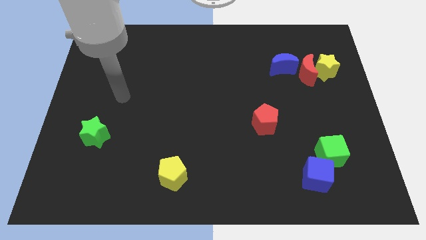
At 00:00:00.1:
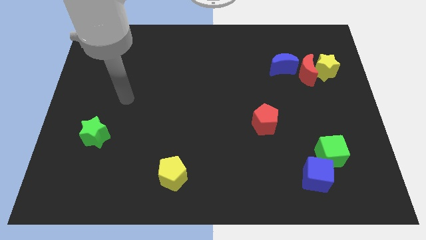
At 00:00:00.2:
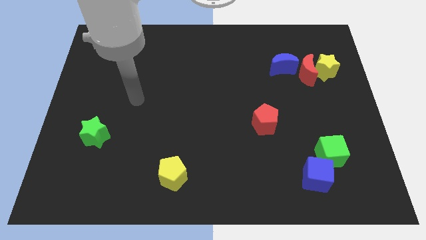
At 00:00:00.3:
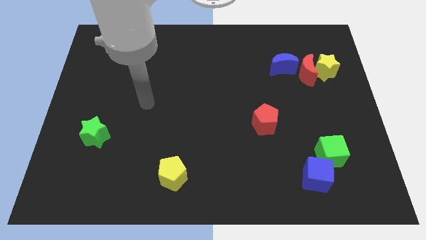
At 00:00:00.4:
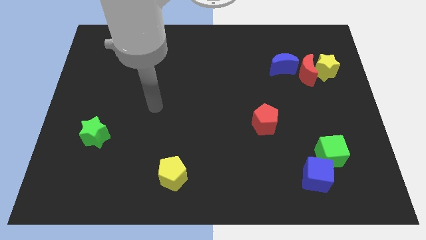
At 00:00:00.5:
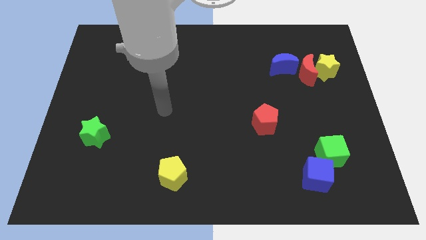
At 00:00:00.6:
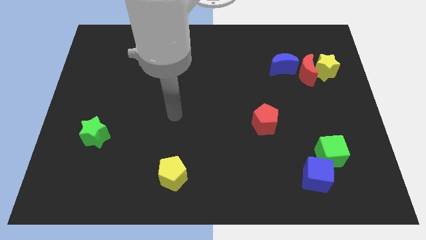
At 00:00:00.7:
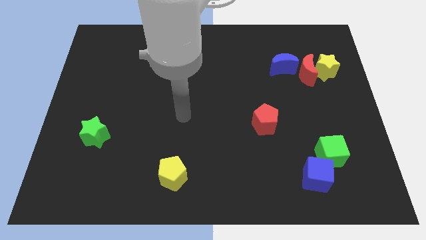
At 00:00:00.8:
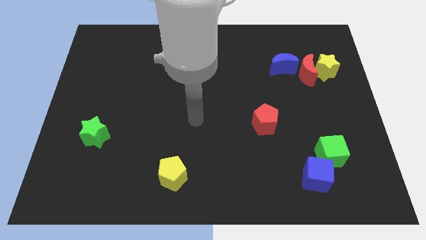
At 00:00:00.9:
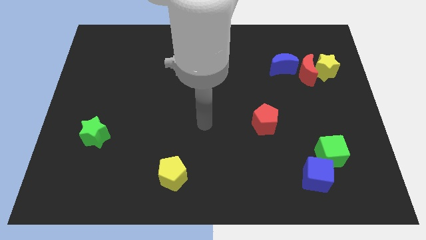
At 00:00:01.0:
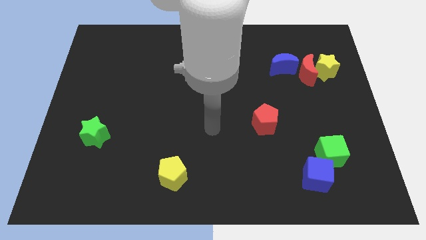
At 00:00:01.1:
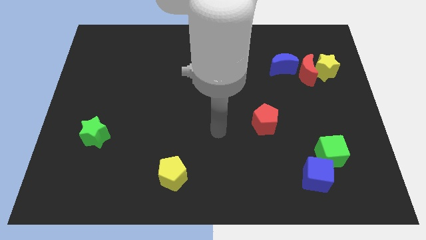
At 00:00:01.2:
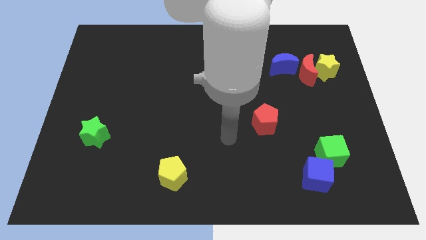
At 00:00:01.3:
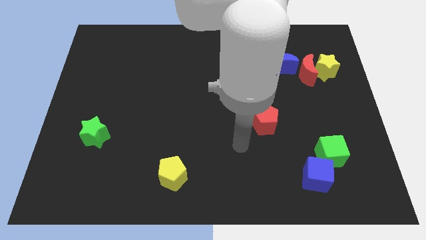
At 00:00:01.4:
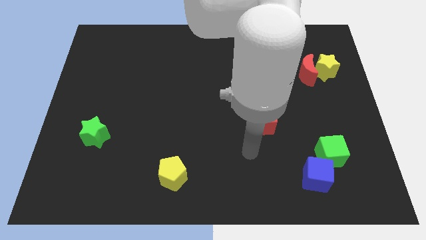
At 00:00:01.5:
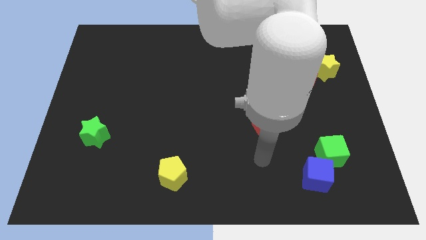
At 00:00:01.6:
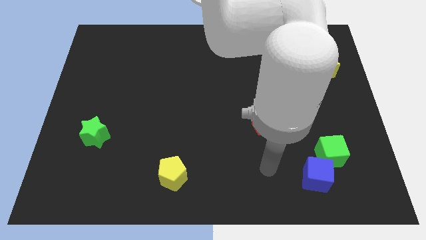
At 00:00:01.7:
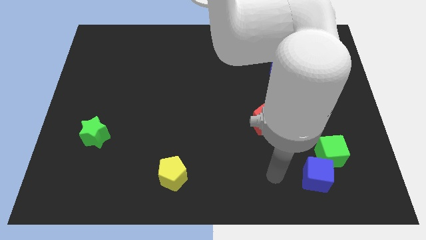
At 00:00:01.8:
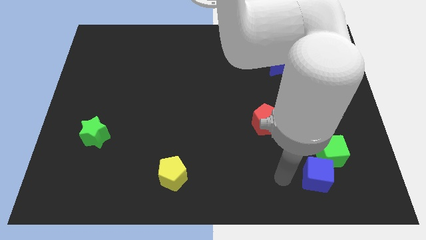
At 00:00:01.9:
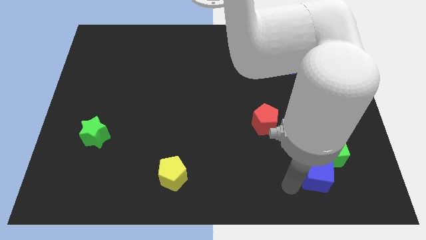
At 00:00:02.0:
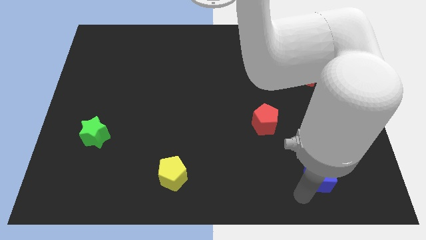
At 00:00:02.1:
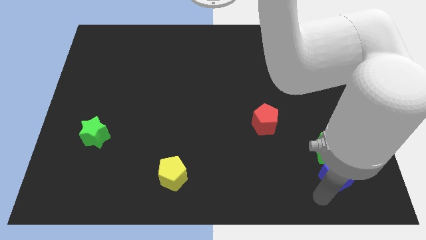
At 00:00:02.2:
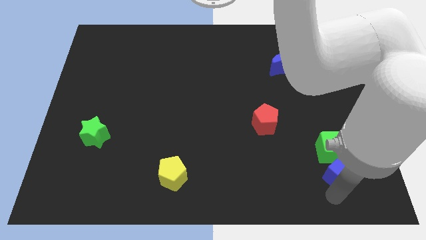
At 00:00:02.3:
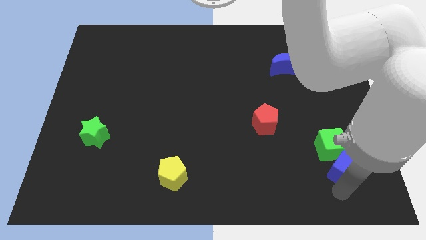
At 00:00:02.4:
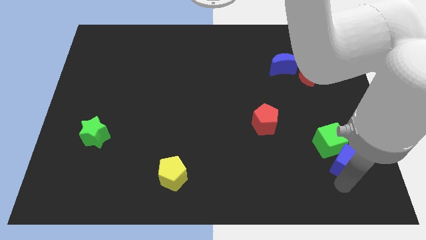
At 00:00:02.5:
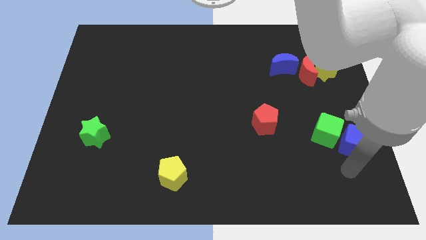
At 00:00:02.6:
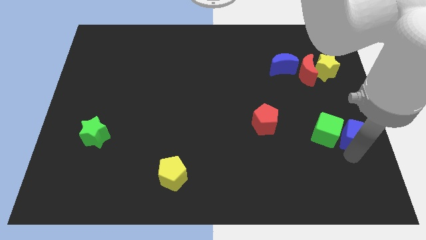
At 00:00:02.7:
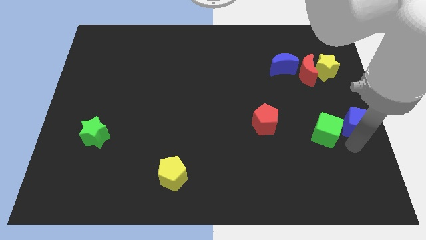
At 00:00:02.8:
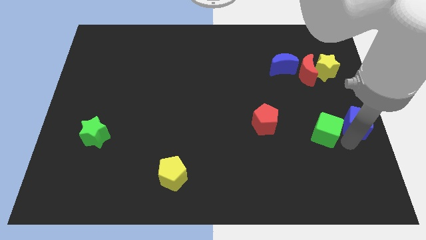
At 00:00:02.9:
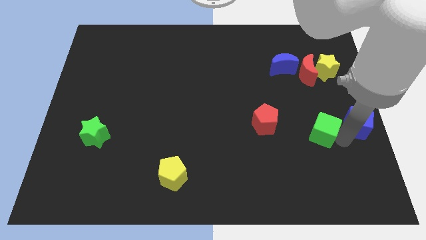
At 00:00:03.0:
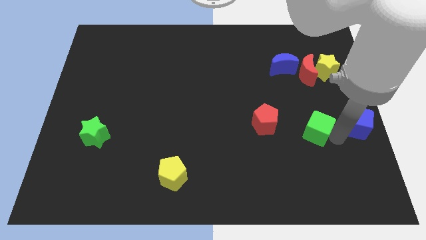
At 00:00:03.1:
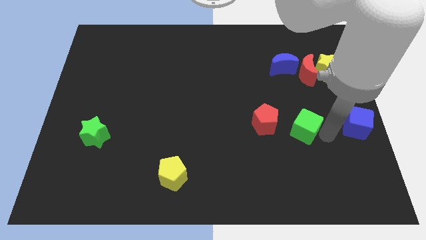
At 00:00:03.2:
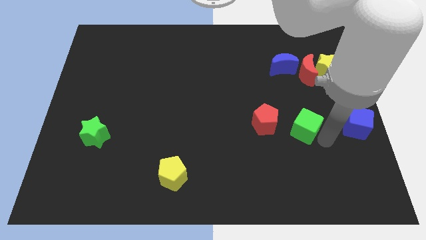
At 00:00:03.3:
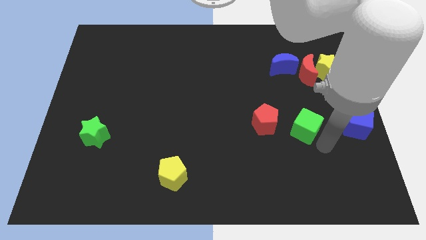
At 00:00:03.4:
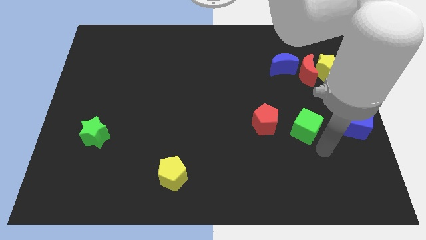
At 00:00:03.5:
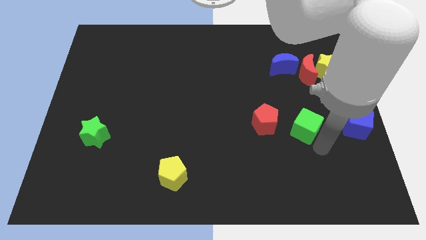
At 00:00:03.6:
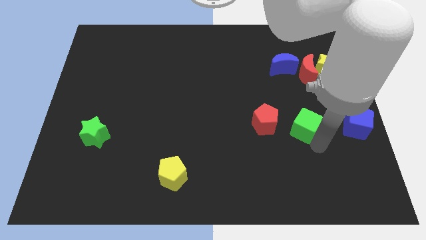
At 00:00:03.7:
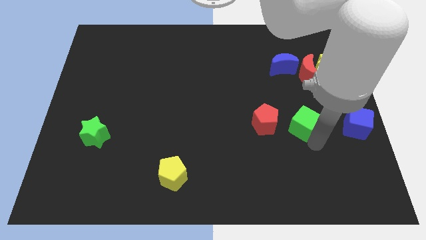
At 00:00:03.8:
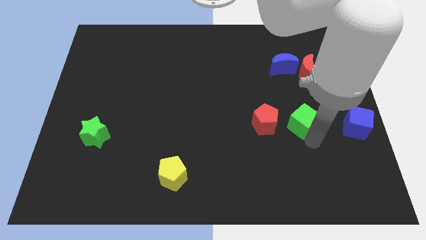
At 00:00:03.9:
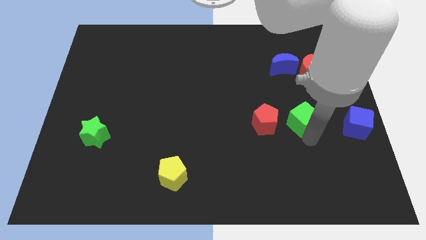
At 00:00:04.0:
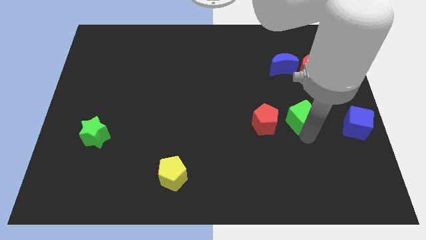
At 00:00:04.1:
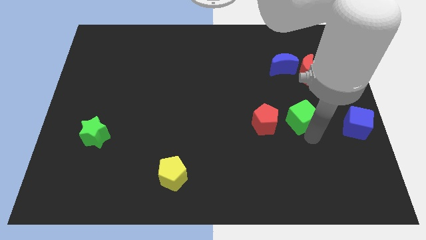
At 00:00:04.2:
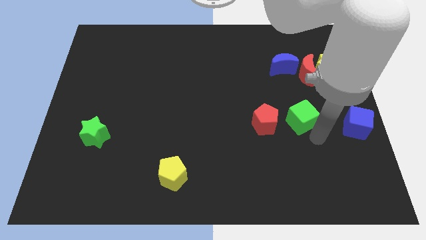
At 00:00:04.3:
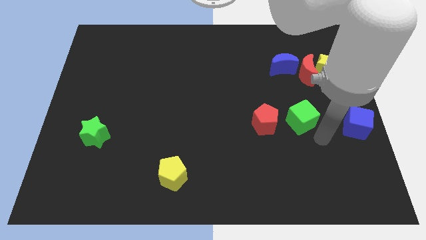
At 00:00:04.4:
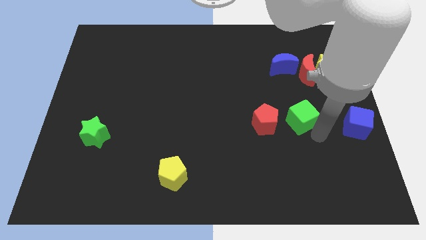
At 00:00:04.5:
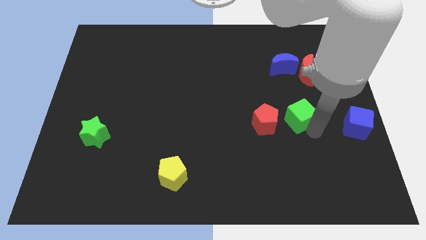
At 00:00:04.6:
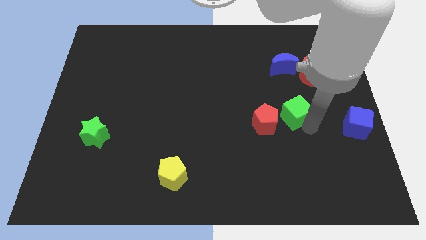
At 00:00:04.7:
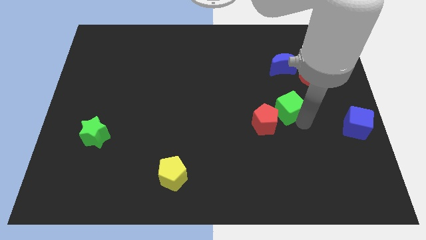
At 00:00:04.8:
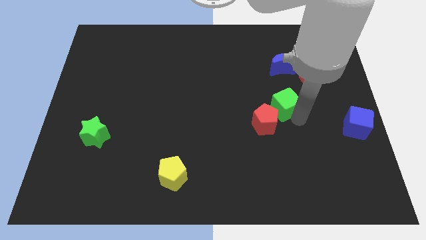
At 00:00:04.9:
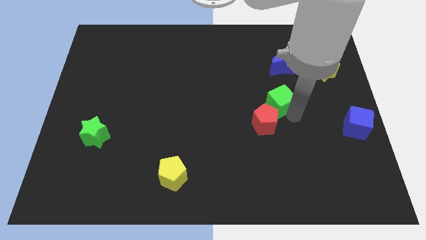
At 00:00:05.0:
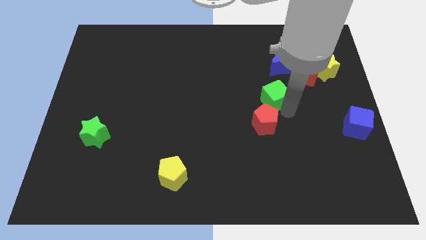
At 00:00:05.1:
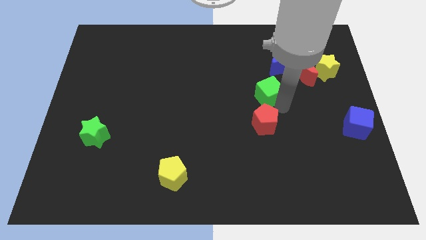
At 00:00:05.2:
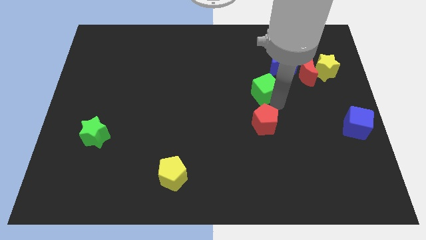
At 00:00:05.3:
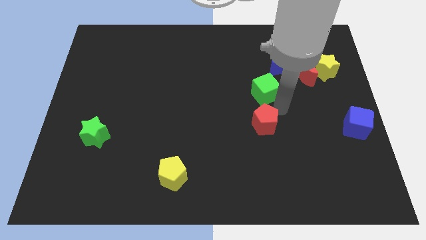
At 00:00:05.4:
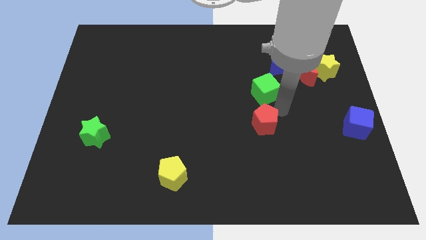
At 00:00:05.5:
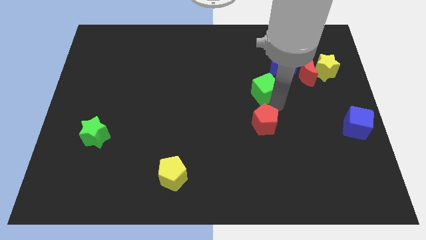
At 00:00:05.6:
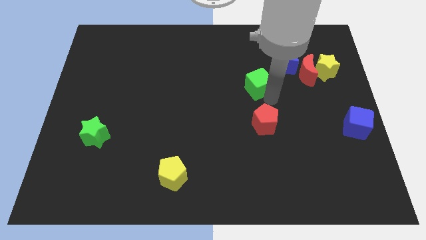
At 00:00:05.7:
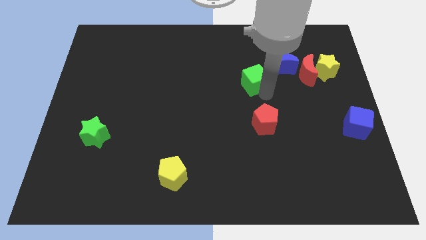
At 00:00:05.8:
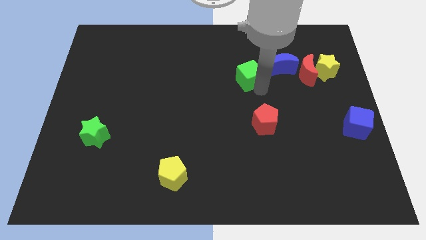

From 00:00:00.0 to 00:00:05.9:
slide the green cube to the left of the blue moon

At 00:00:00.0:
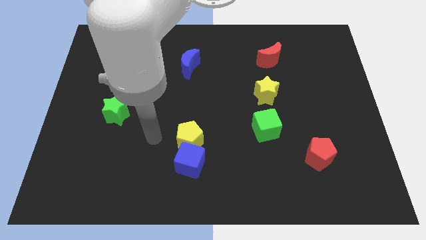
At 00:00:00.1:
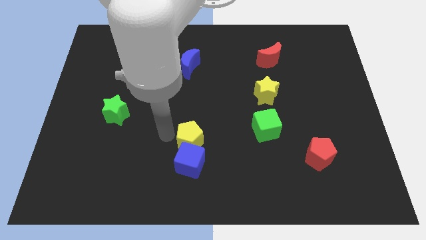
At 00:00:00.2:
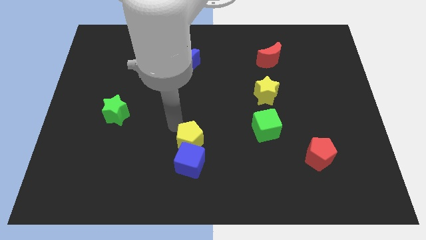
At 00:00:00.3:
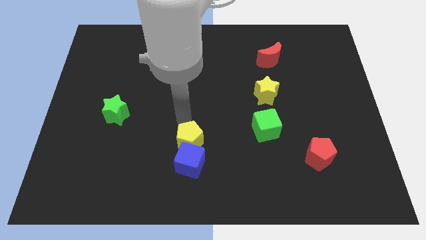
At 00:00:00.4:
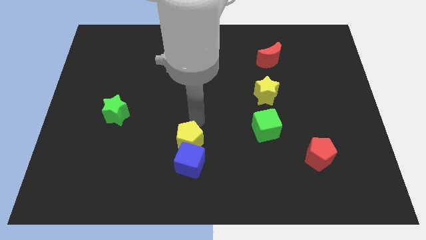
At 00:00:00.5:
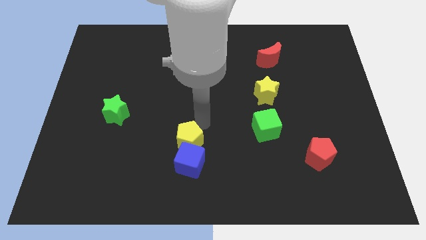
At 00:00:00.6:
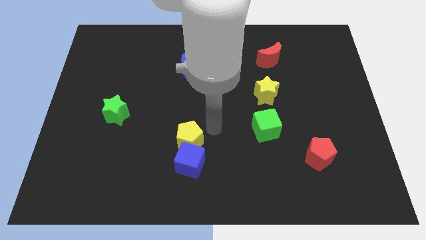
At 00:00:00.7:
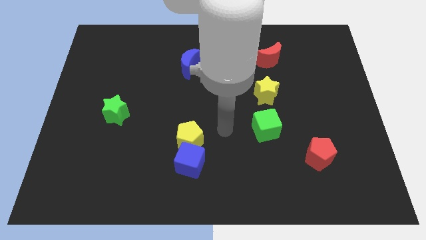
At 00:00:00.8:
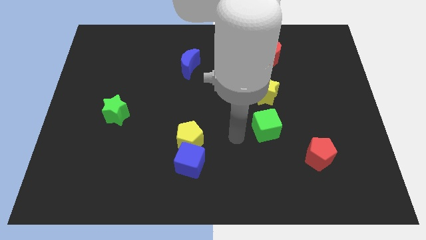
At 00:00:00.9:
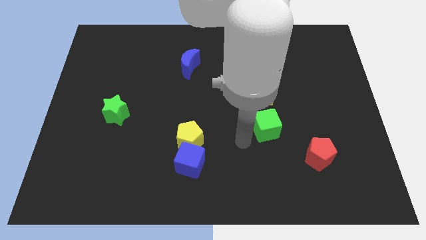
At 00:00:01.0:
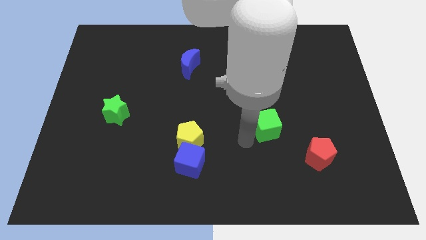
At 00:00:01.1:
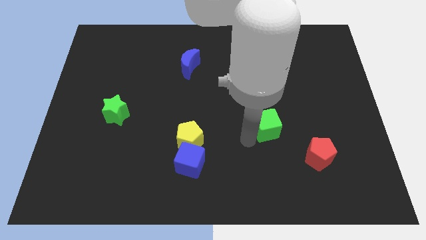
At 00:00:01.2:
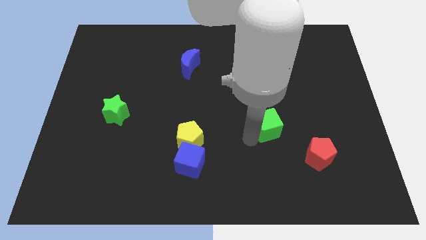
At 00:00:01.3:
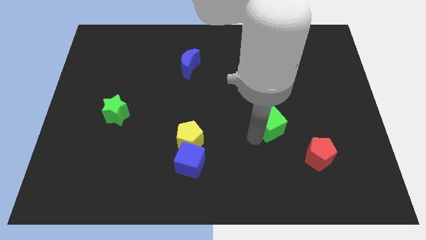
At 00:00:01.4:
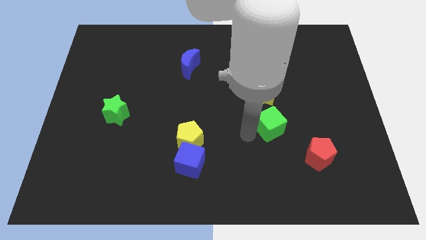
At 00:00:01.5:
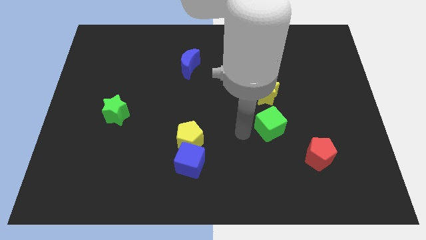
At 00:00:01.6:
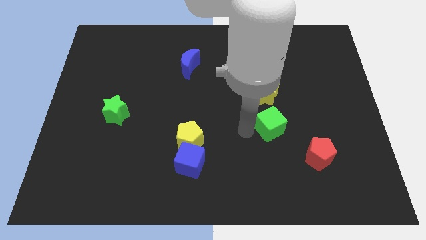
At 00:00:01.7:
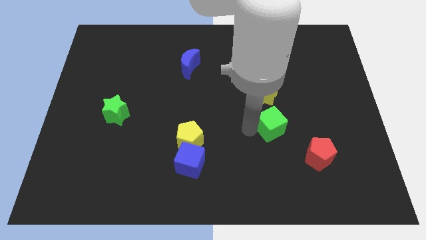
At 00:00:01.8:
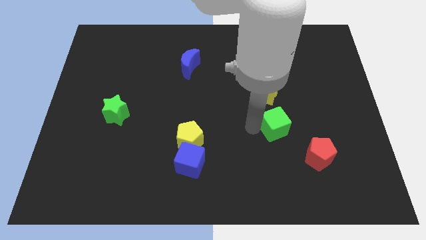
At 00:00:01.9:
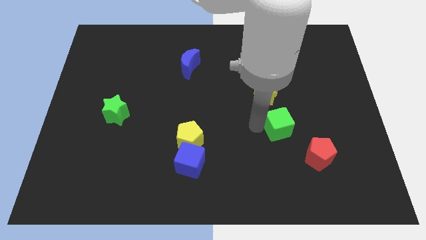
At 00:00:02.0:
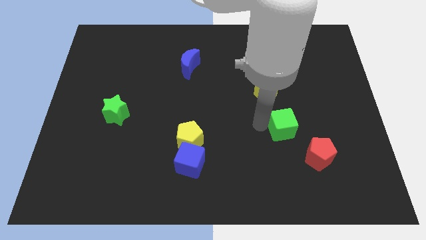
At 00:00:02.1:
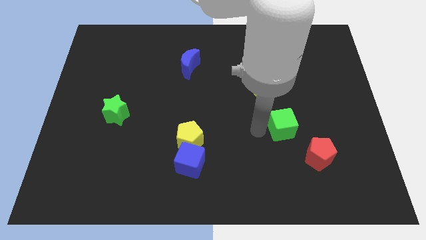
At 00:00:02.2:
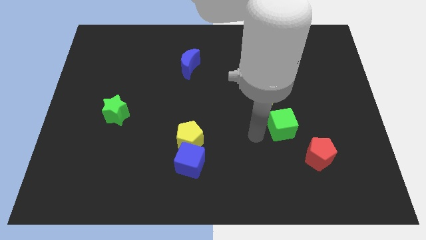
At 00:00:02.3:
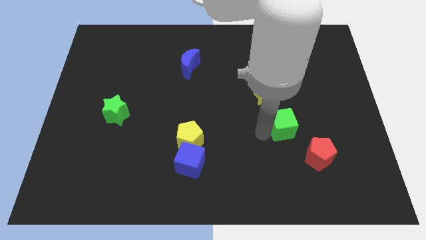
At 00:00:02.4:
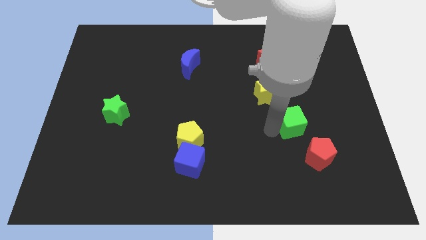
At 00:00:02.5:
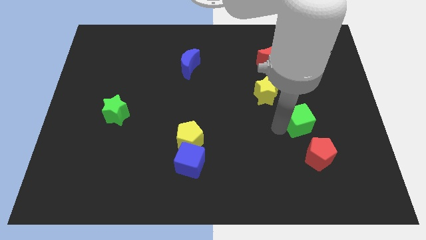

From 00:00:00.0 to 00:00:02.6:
move the green cube above the red pentagon
